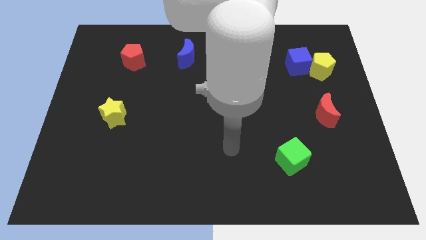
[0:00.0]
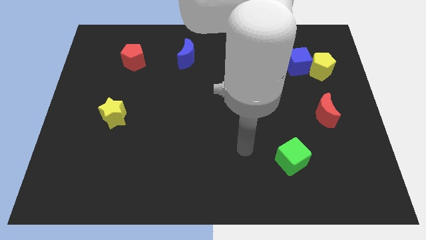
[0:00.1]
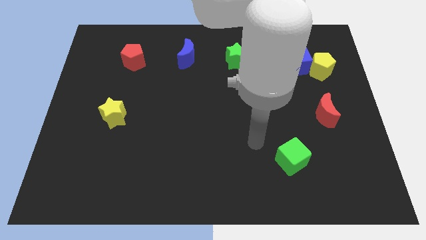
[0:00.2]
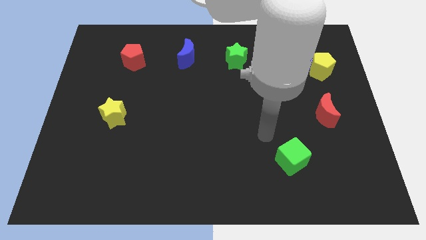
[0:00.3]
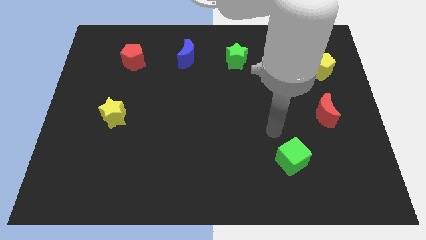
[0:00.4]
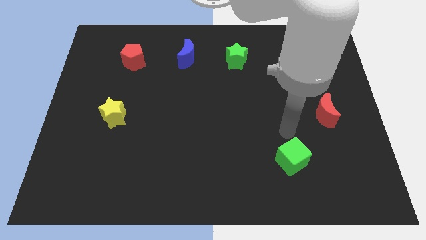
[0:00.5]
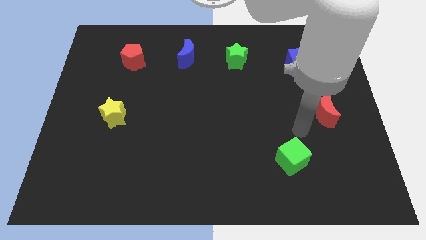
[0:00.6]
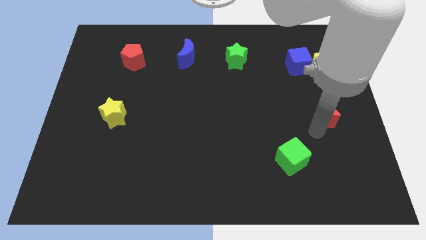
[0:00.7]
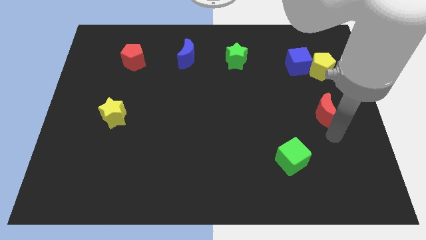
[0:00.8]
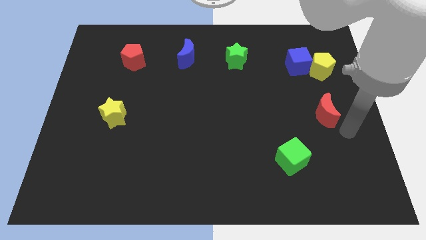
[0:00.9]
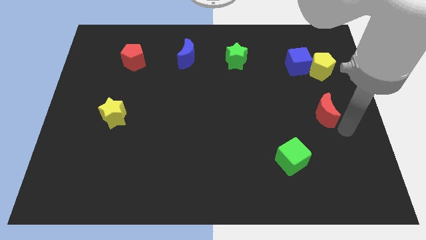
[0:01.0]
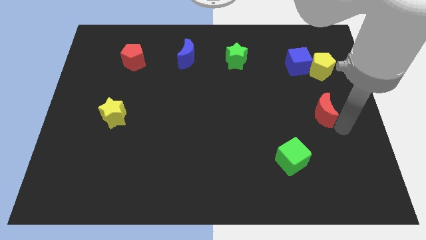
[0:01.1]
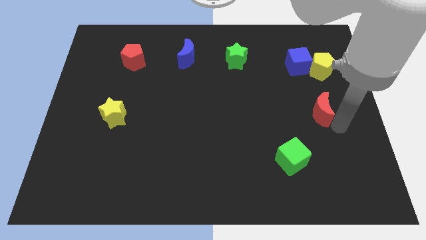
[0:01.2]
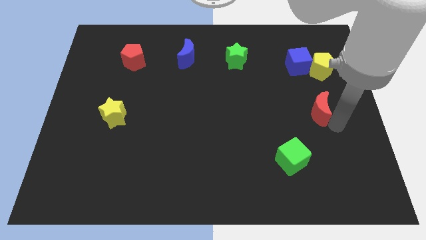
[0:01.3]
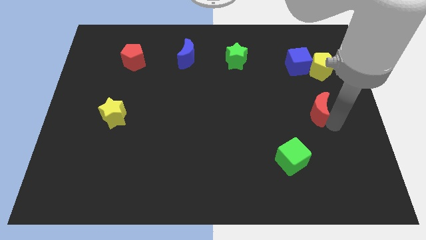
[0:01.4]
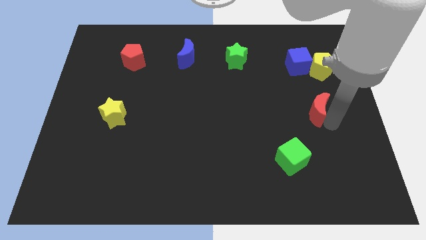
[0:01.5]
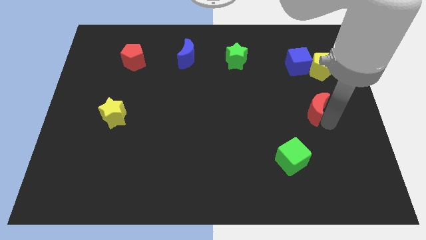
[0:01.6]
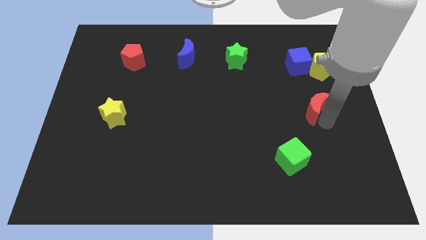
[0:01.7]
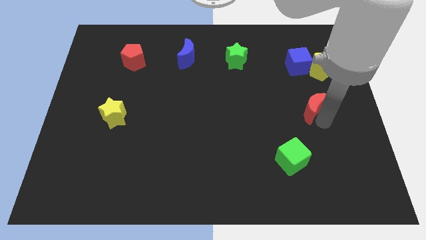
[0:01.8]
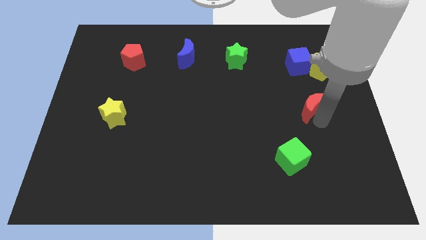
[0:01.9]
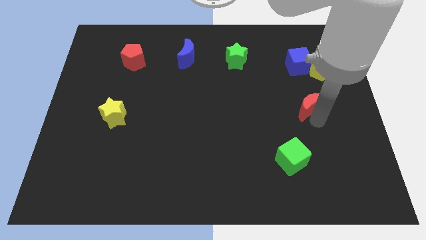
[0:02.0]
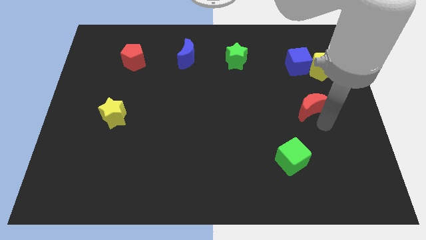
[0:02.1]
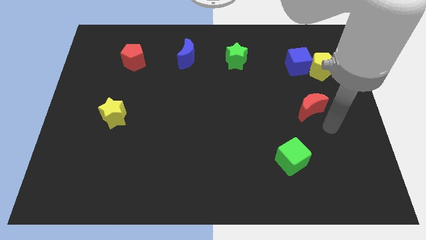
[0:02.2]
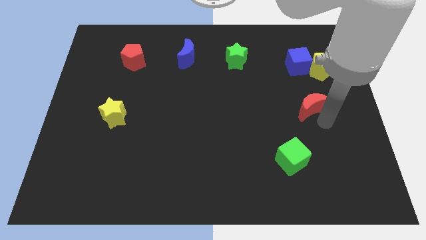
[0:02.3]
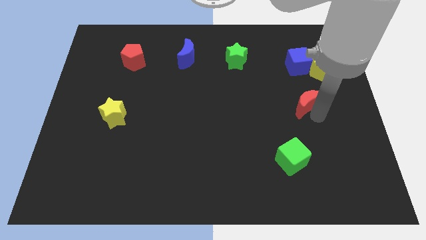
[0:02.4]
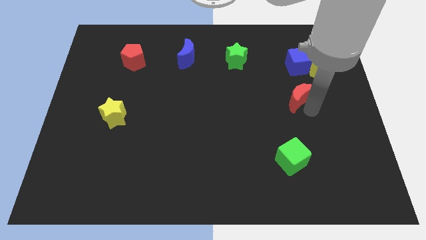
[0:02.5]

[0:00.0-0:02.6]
push the red moon diagonally upwards and left a little

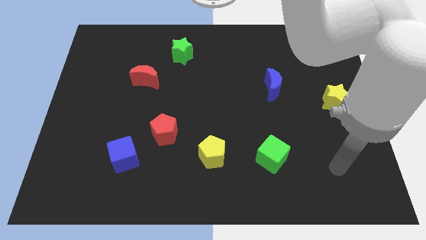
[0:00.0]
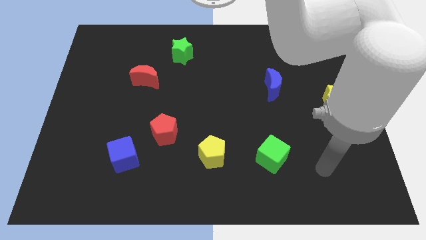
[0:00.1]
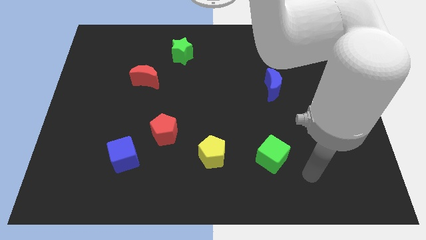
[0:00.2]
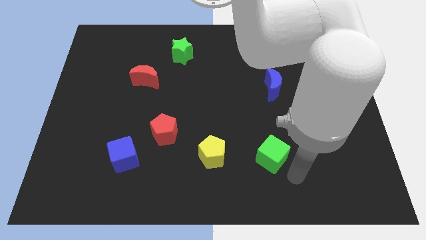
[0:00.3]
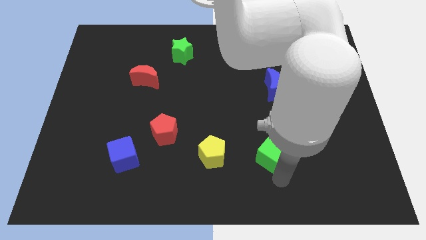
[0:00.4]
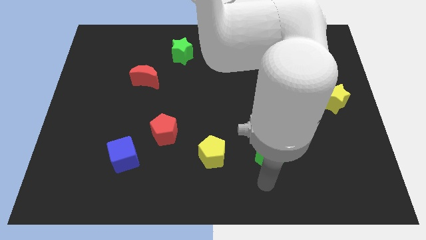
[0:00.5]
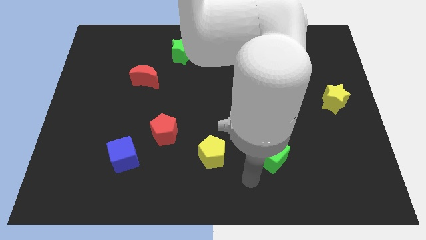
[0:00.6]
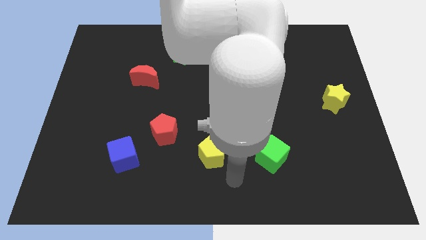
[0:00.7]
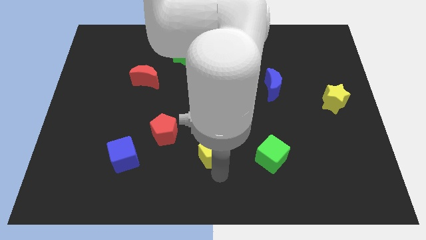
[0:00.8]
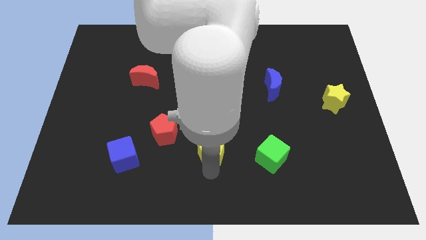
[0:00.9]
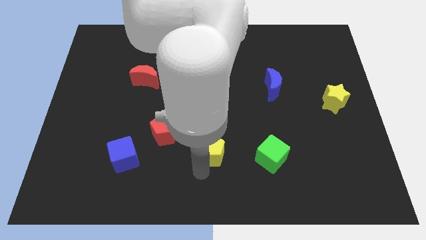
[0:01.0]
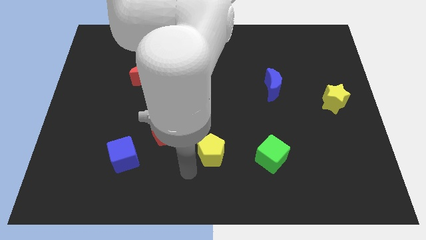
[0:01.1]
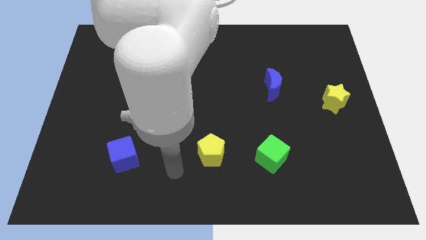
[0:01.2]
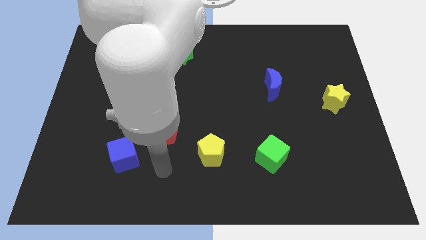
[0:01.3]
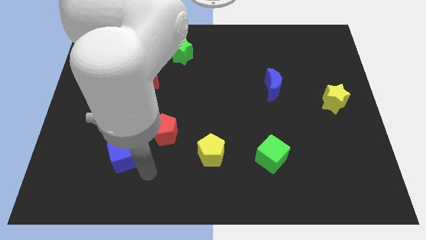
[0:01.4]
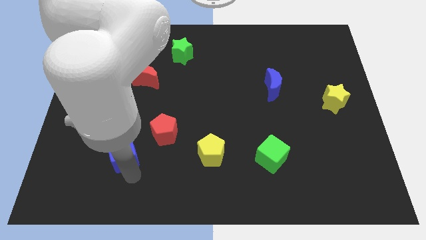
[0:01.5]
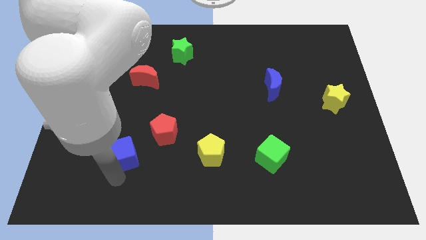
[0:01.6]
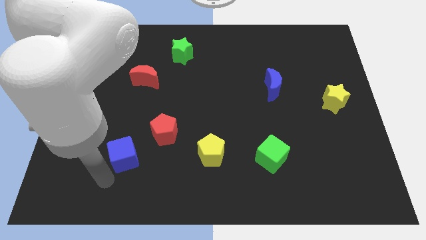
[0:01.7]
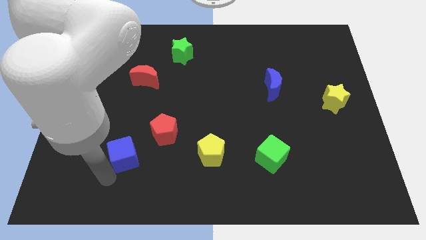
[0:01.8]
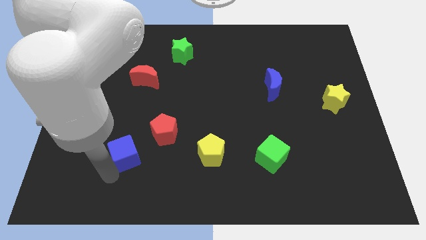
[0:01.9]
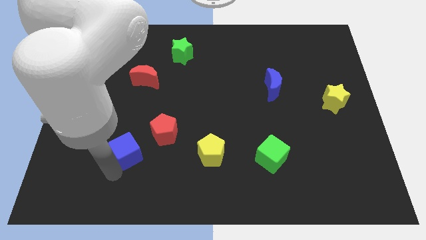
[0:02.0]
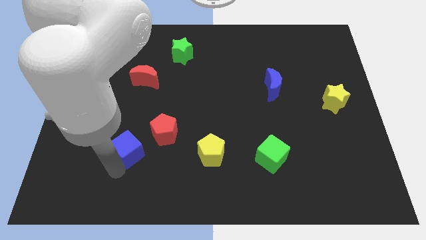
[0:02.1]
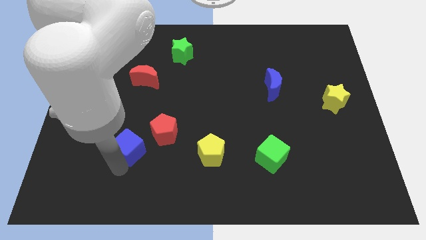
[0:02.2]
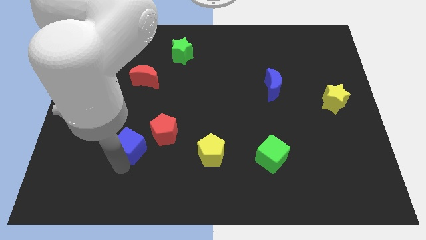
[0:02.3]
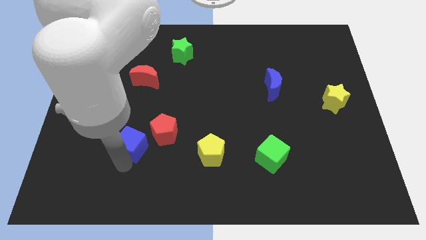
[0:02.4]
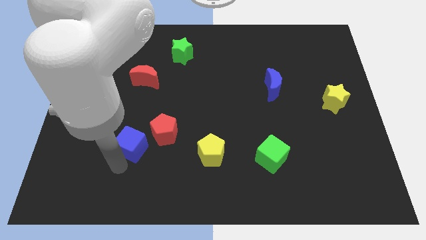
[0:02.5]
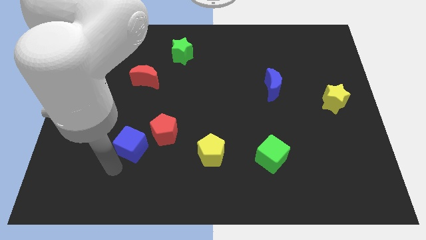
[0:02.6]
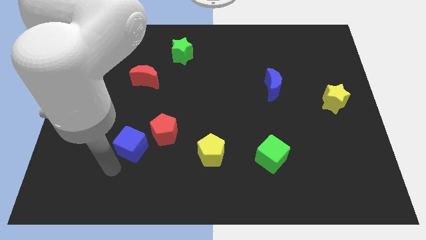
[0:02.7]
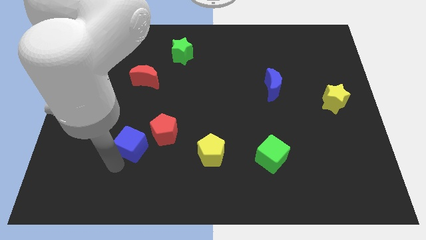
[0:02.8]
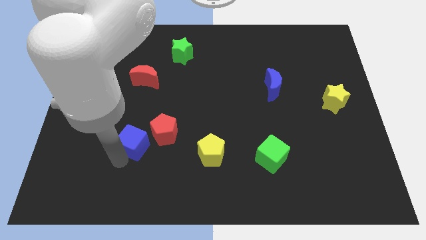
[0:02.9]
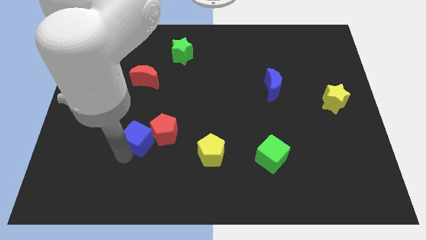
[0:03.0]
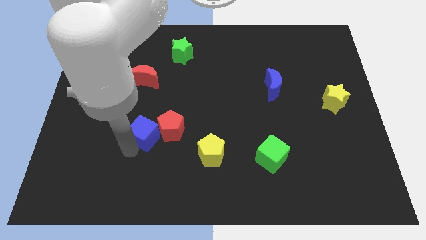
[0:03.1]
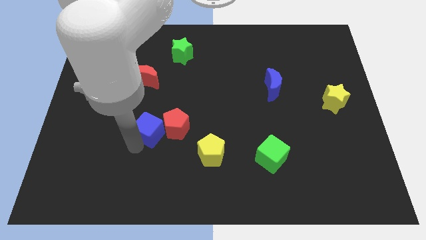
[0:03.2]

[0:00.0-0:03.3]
move the blue cube upwards and right diagonally somewhat

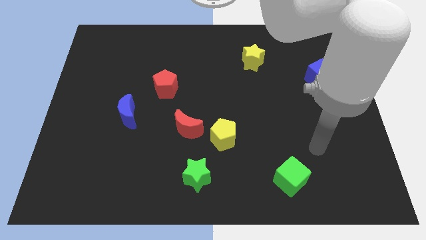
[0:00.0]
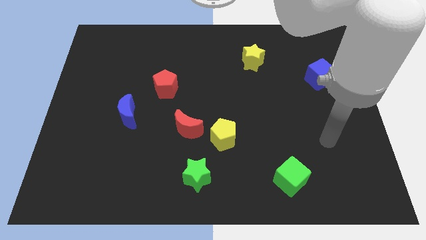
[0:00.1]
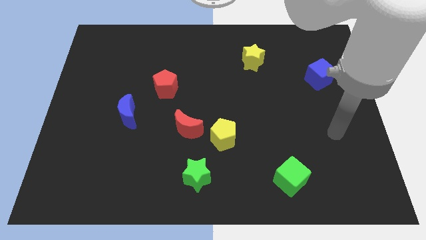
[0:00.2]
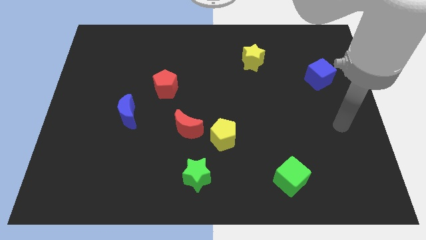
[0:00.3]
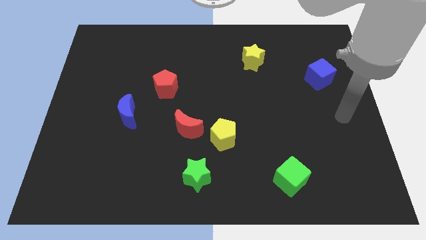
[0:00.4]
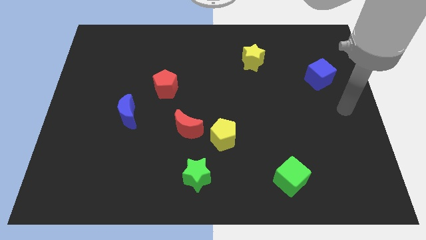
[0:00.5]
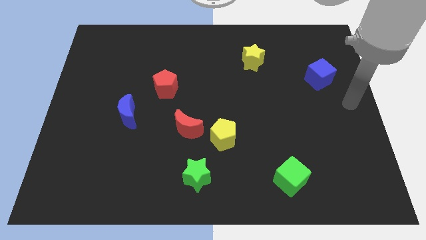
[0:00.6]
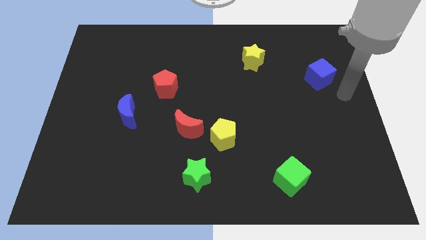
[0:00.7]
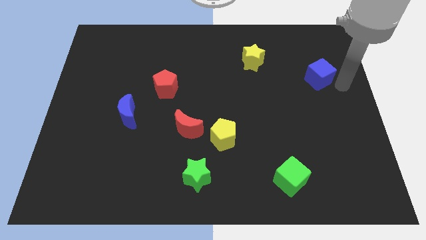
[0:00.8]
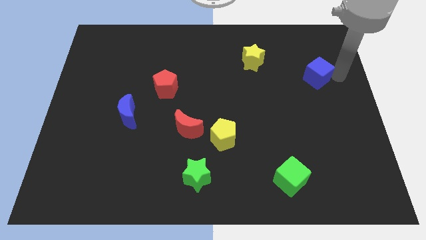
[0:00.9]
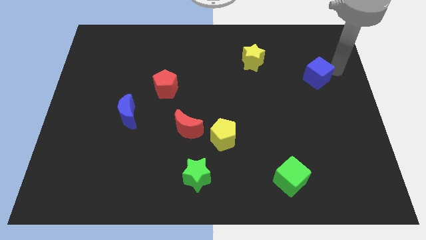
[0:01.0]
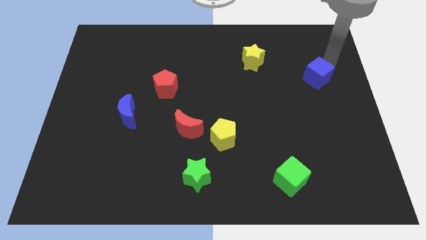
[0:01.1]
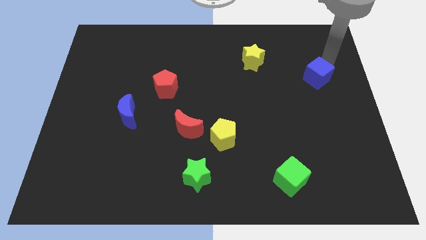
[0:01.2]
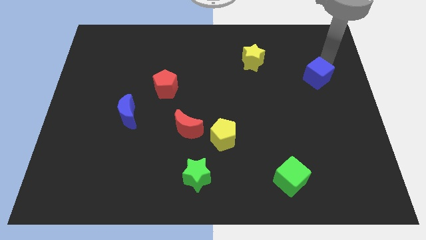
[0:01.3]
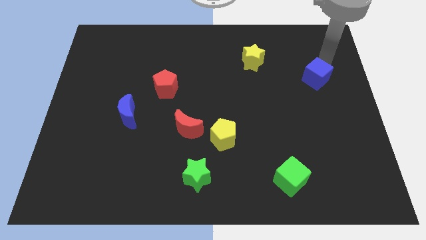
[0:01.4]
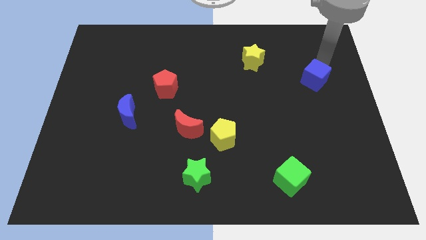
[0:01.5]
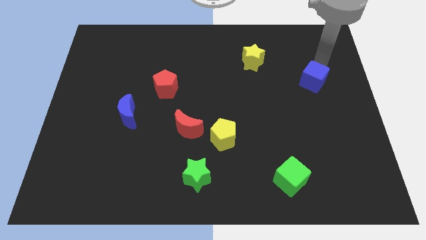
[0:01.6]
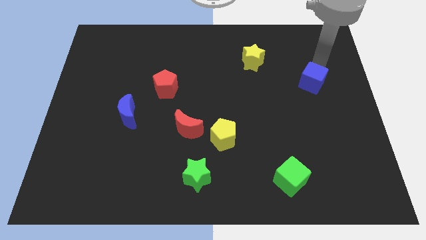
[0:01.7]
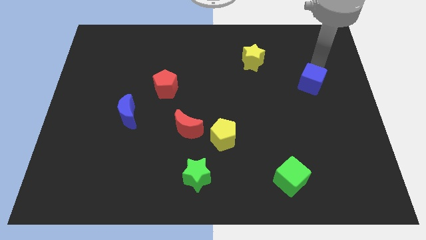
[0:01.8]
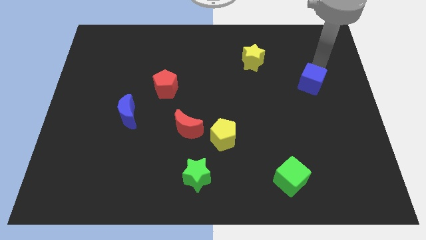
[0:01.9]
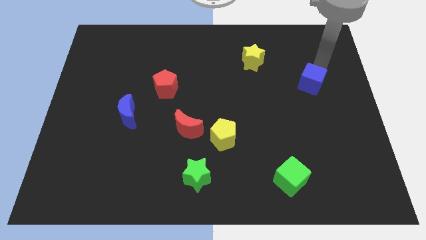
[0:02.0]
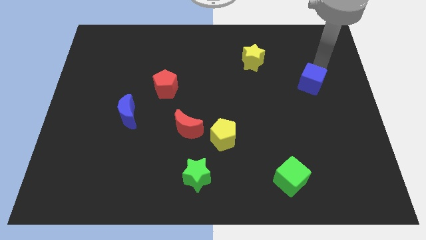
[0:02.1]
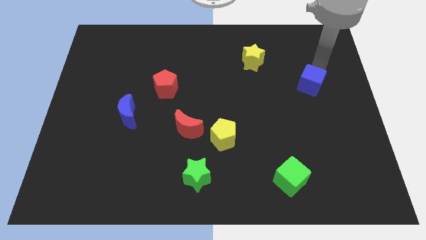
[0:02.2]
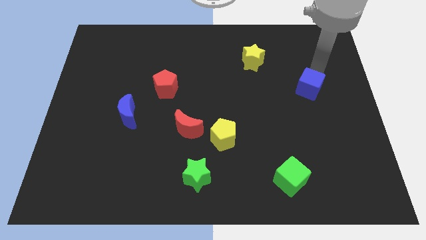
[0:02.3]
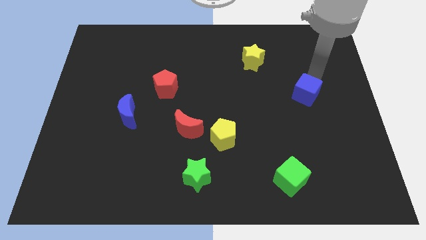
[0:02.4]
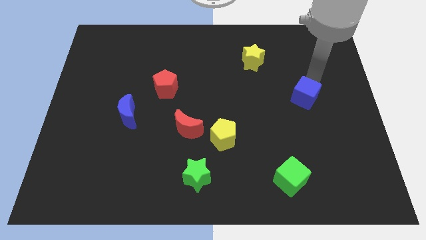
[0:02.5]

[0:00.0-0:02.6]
slightly move the blue cube diagonally down and left
